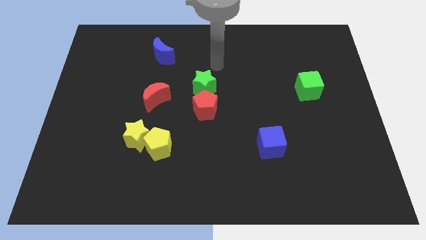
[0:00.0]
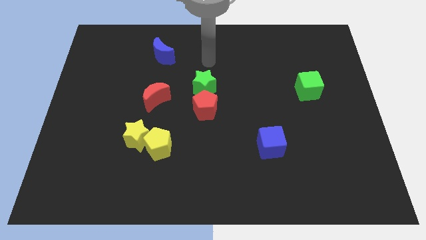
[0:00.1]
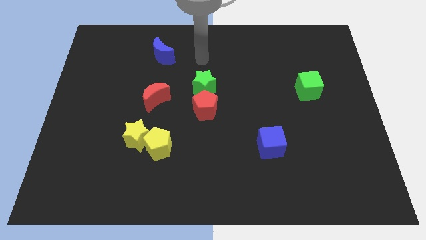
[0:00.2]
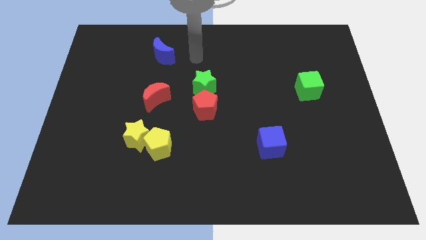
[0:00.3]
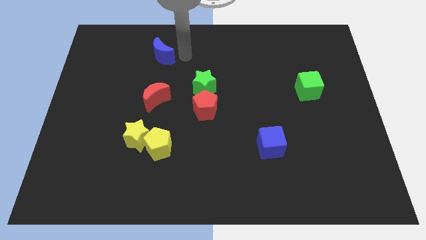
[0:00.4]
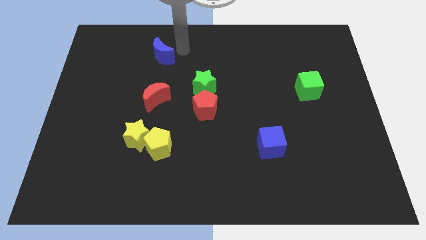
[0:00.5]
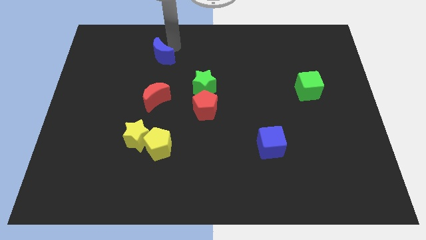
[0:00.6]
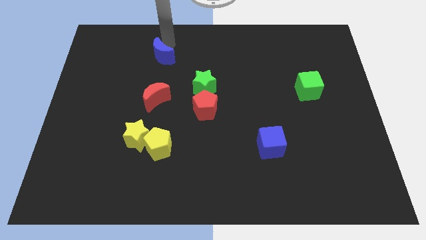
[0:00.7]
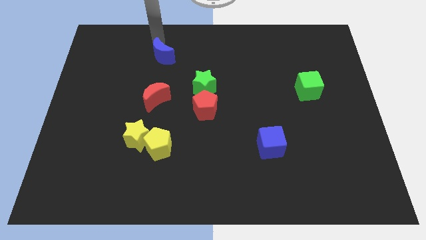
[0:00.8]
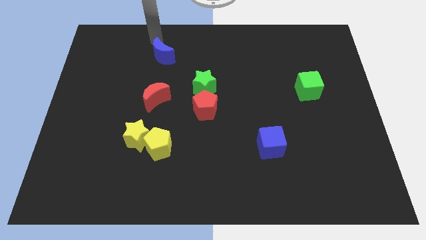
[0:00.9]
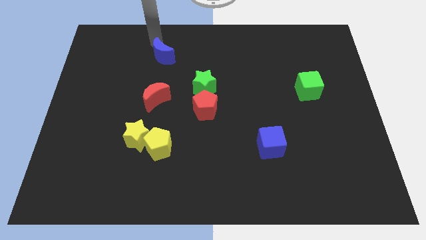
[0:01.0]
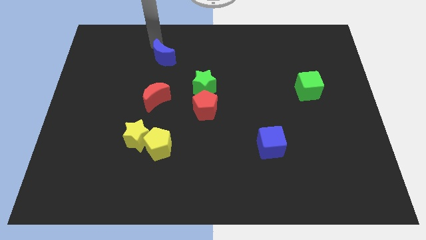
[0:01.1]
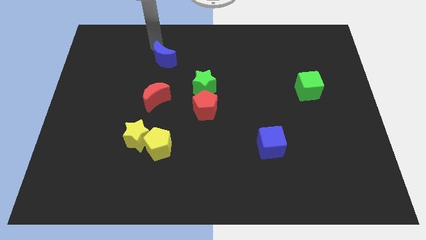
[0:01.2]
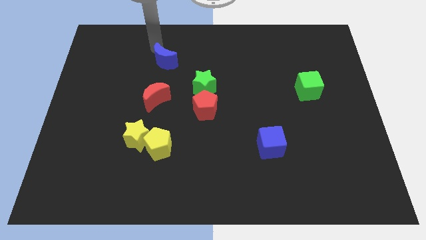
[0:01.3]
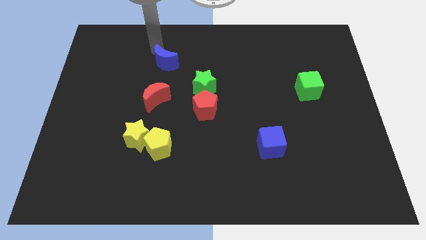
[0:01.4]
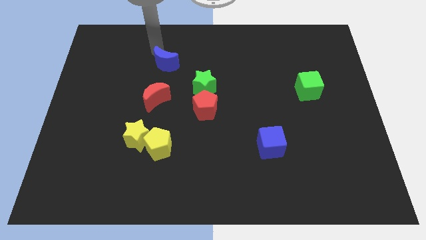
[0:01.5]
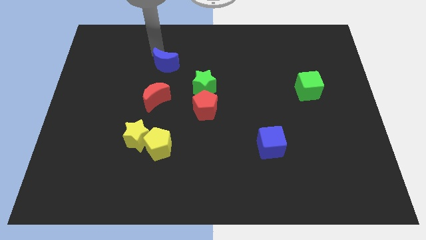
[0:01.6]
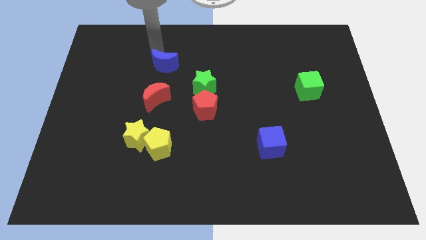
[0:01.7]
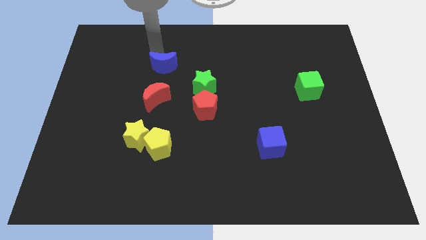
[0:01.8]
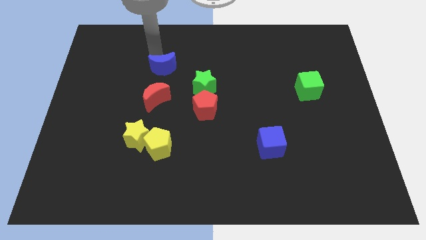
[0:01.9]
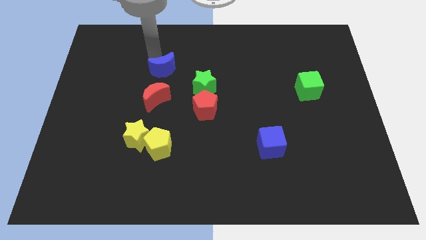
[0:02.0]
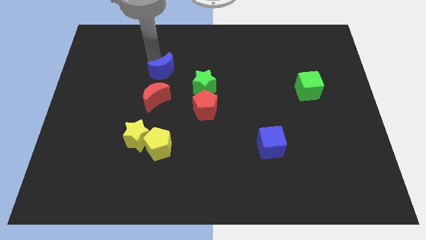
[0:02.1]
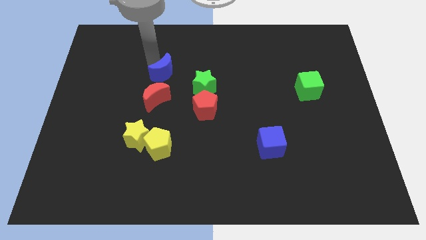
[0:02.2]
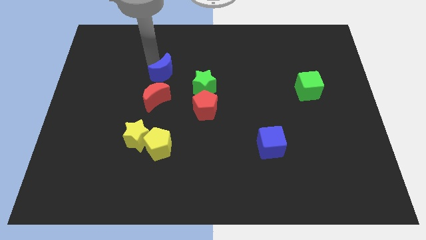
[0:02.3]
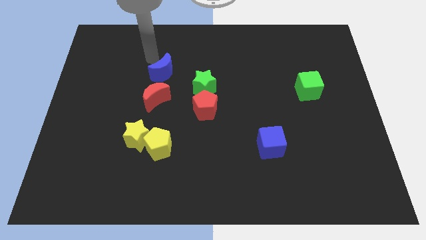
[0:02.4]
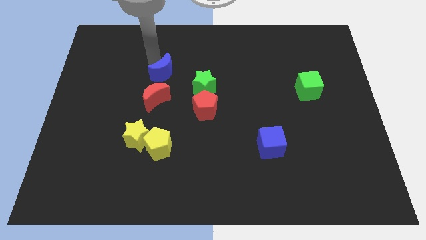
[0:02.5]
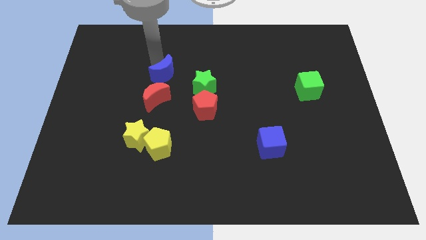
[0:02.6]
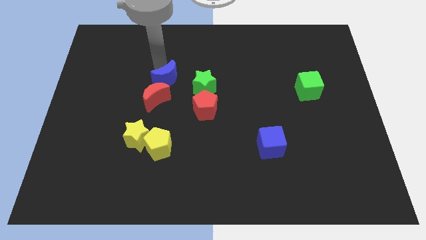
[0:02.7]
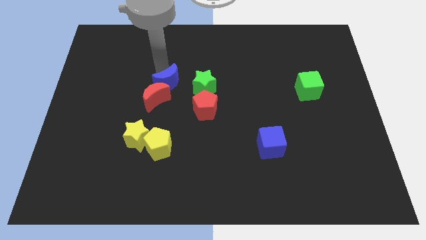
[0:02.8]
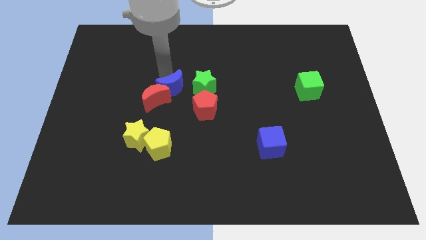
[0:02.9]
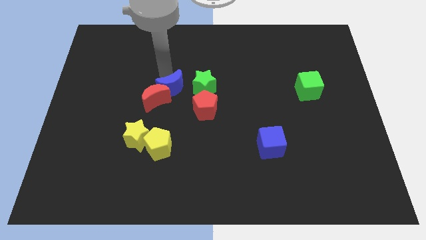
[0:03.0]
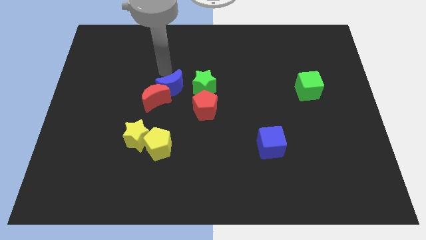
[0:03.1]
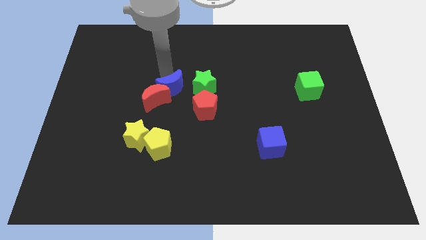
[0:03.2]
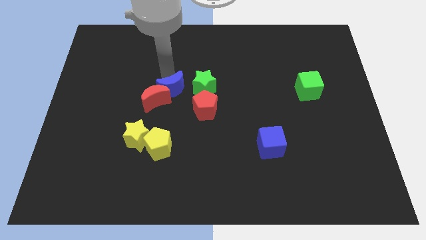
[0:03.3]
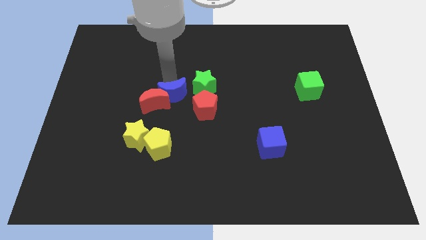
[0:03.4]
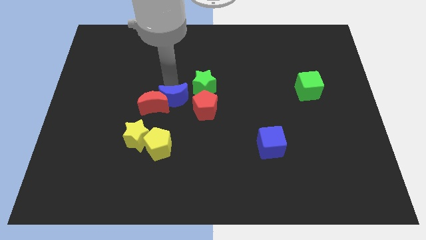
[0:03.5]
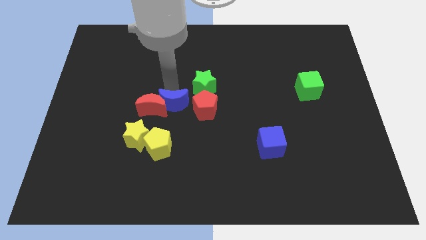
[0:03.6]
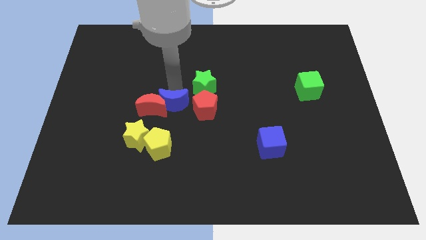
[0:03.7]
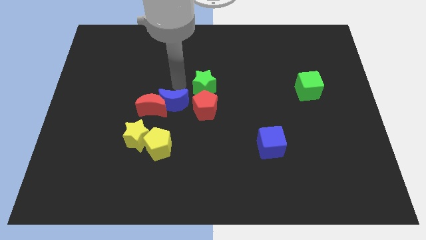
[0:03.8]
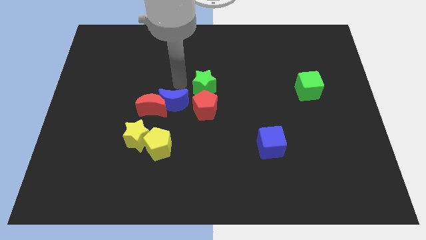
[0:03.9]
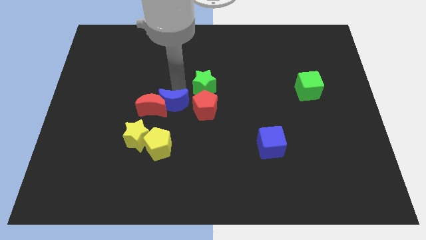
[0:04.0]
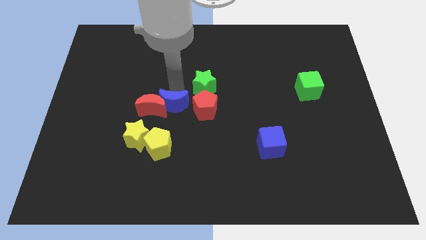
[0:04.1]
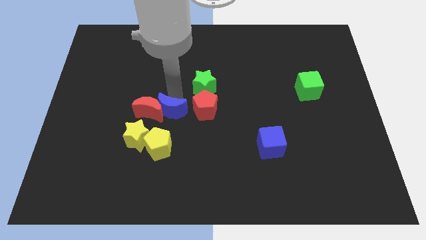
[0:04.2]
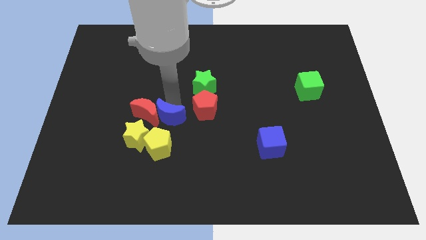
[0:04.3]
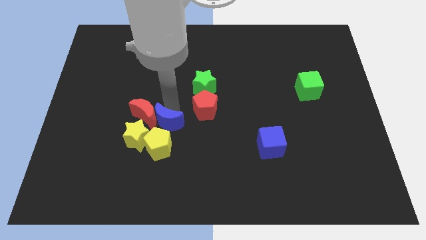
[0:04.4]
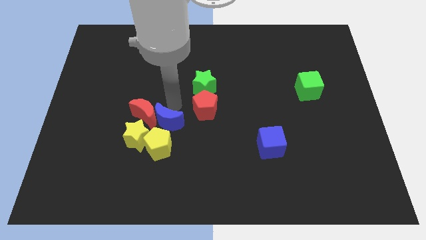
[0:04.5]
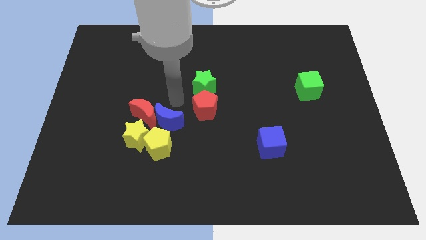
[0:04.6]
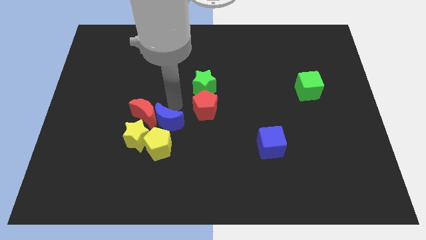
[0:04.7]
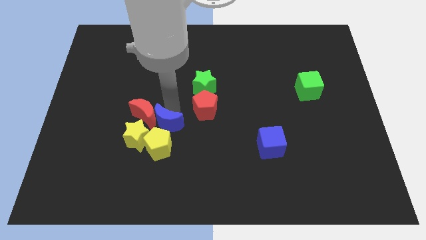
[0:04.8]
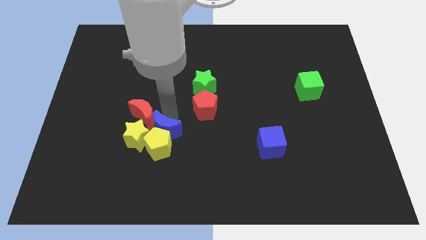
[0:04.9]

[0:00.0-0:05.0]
put the blue moon to the yellow pentagon

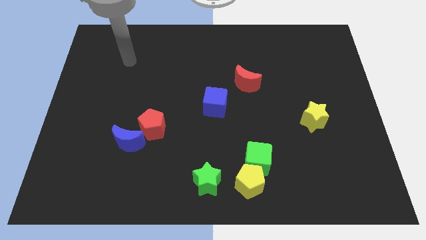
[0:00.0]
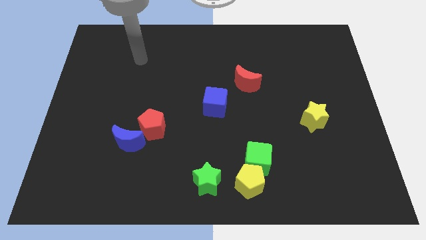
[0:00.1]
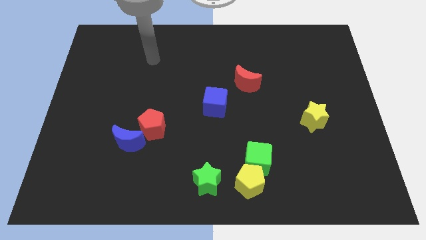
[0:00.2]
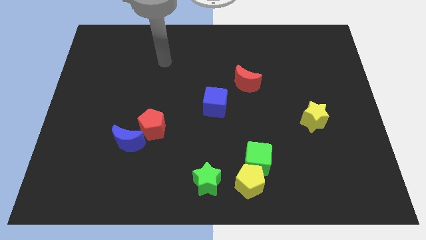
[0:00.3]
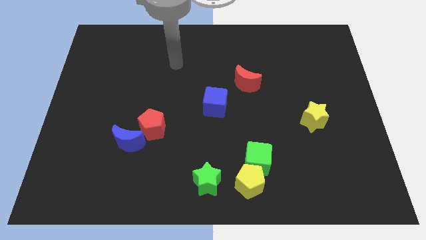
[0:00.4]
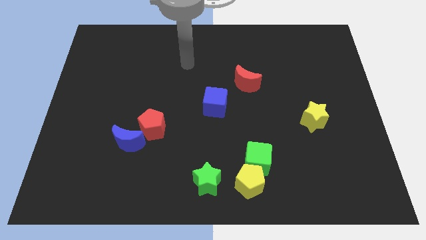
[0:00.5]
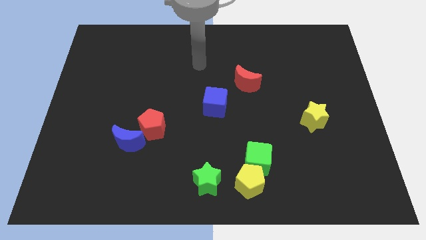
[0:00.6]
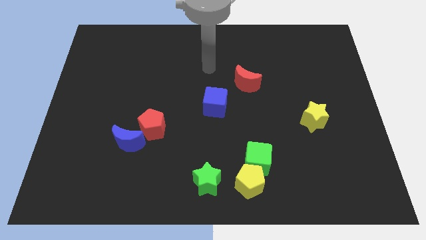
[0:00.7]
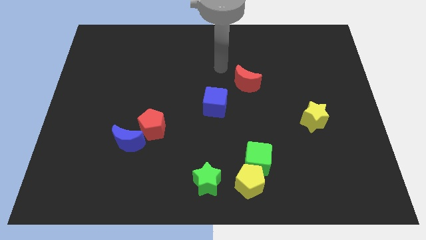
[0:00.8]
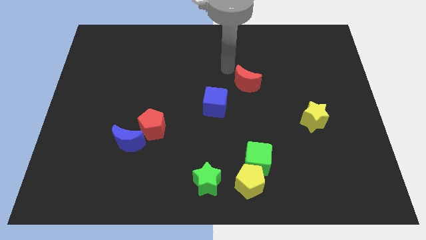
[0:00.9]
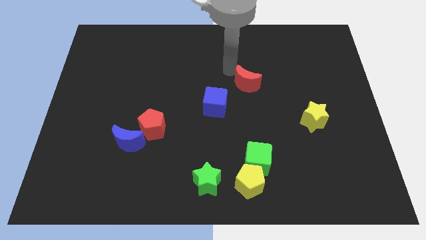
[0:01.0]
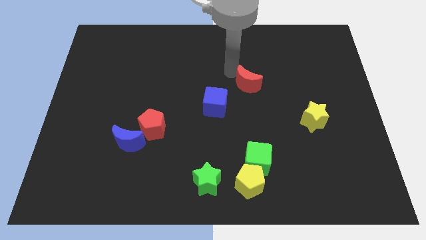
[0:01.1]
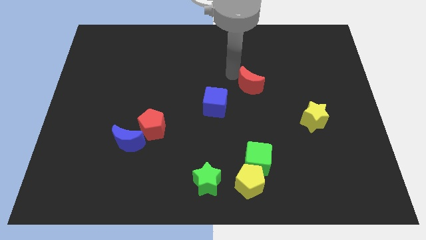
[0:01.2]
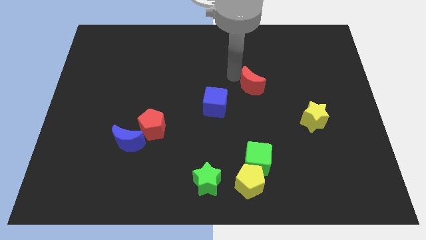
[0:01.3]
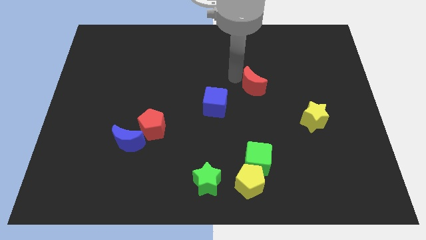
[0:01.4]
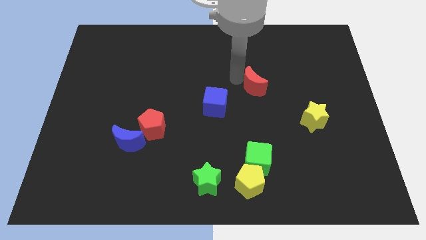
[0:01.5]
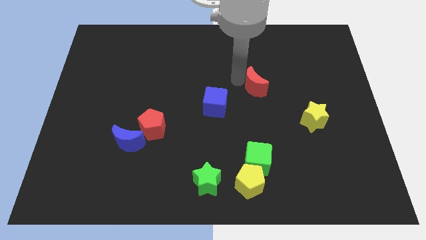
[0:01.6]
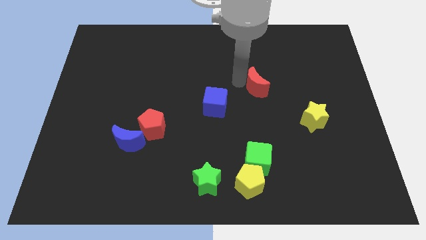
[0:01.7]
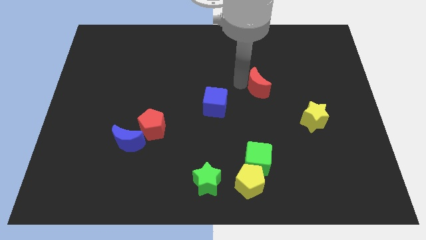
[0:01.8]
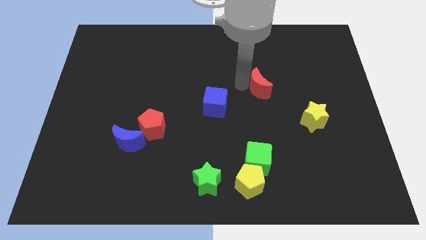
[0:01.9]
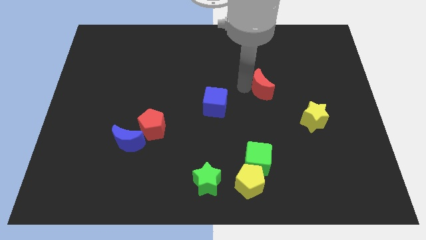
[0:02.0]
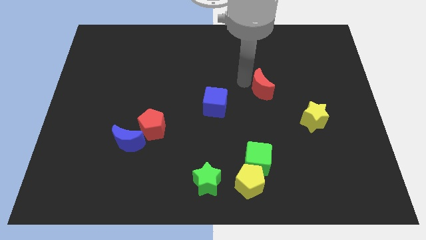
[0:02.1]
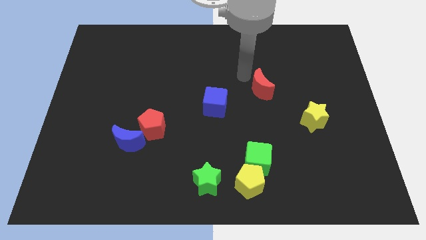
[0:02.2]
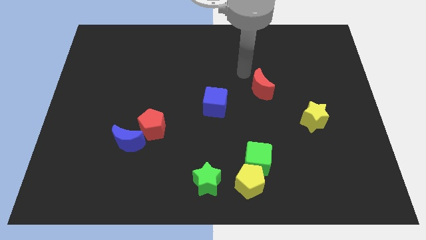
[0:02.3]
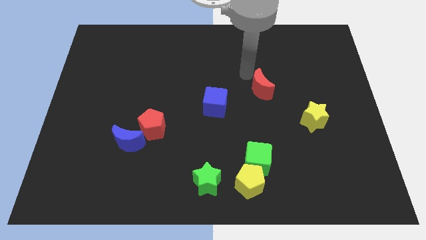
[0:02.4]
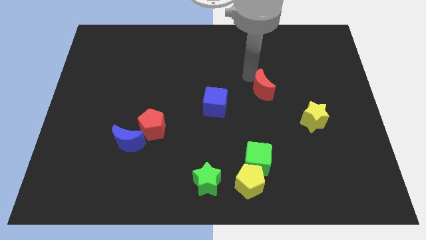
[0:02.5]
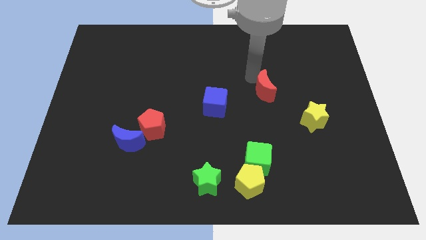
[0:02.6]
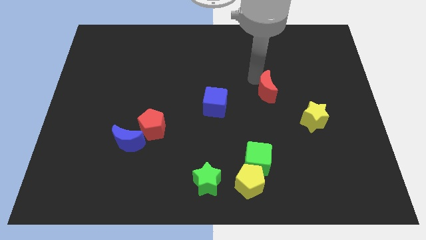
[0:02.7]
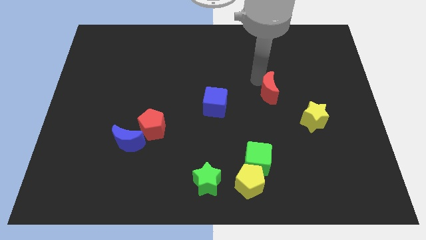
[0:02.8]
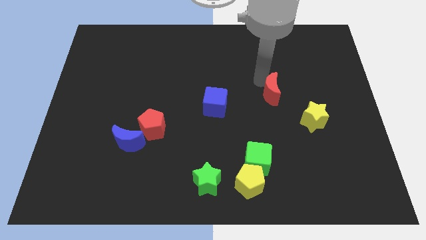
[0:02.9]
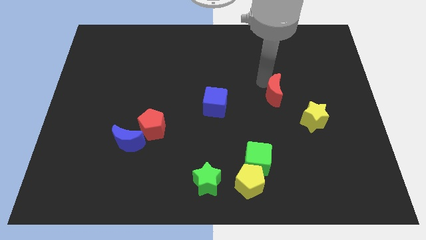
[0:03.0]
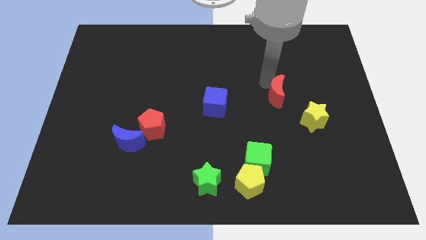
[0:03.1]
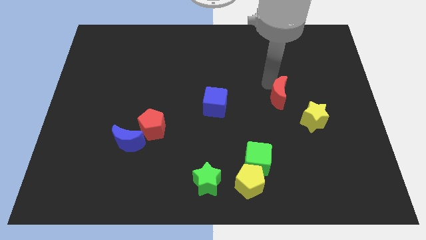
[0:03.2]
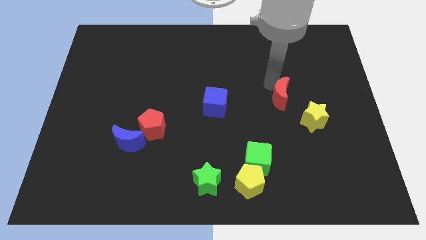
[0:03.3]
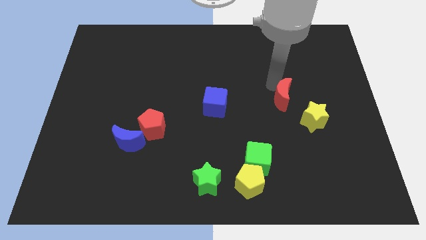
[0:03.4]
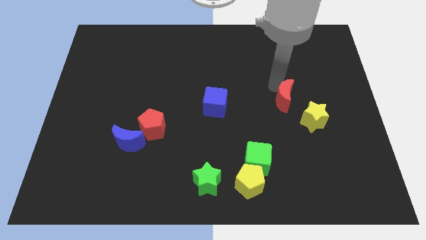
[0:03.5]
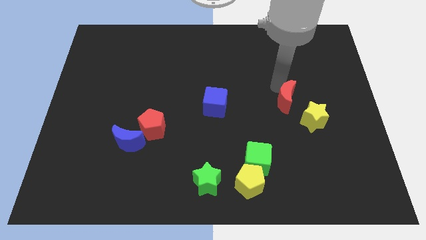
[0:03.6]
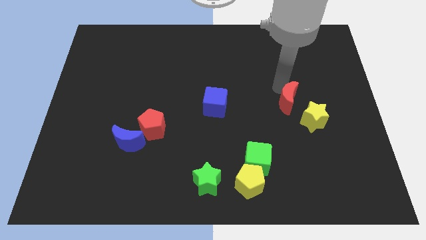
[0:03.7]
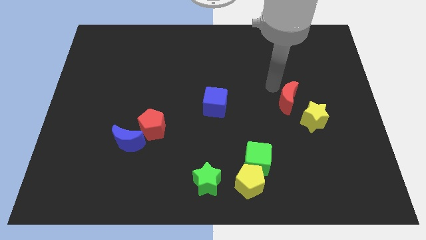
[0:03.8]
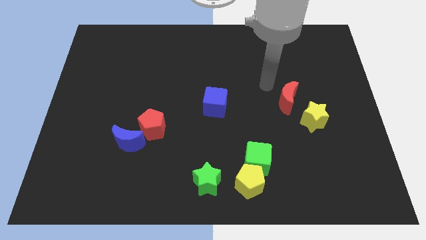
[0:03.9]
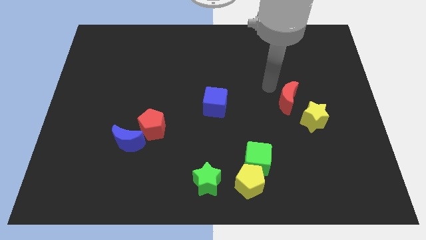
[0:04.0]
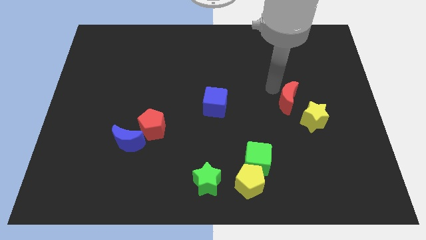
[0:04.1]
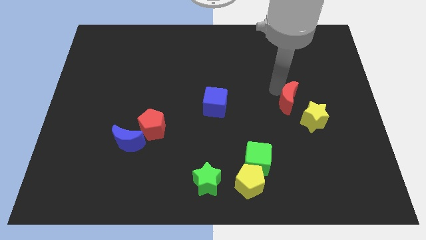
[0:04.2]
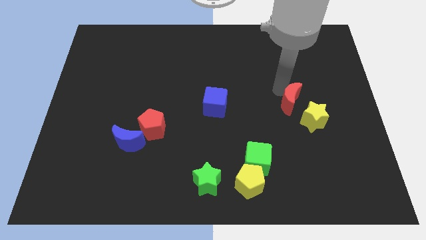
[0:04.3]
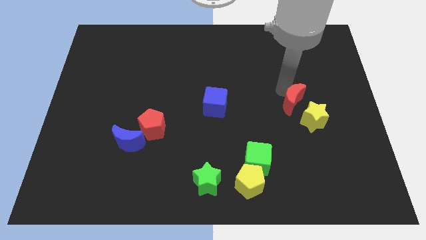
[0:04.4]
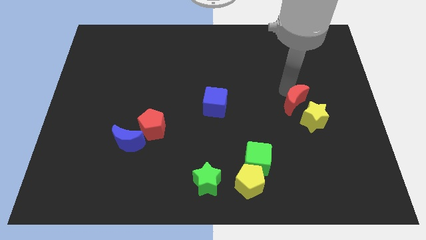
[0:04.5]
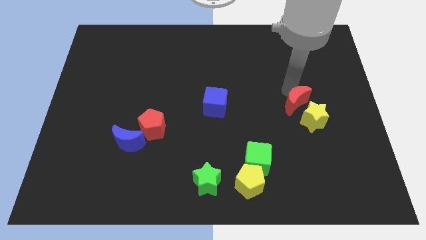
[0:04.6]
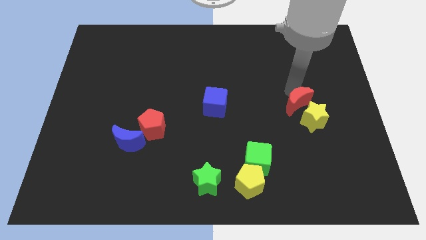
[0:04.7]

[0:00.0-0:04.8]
push the red moon close to the yellow star
